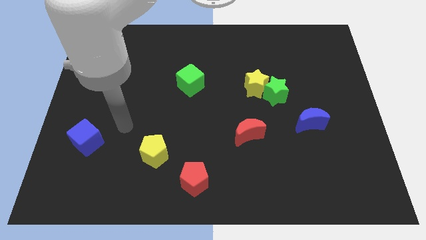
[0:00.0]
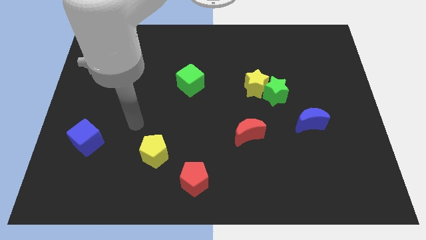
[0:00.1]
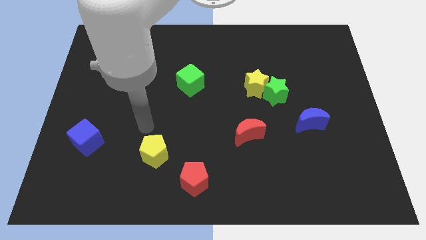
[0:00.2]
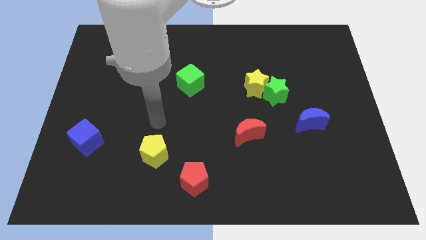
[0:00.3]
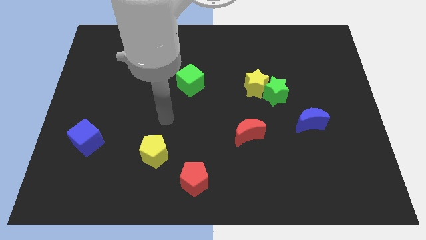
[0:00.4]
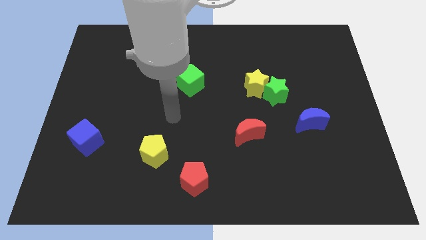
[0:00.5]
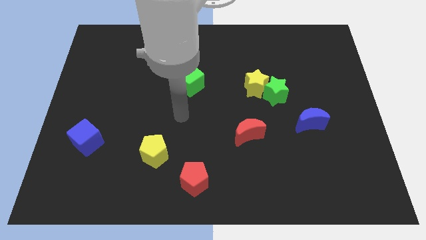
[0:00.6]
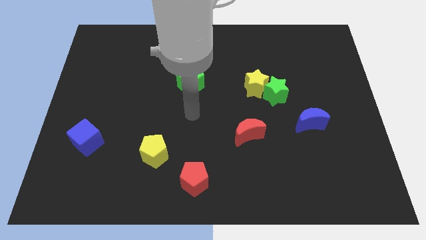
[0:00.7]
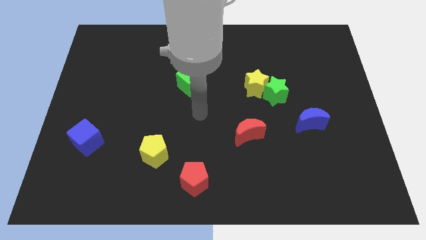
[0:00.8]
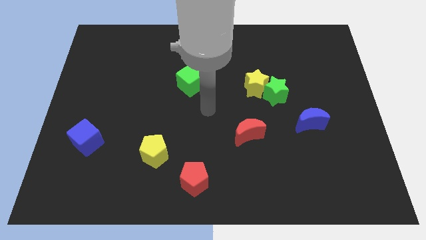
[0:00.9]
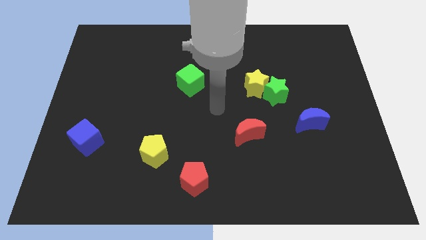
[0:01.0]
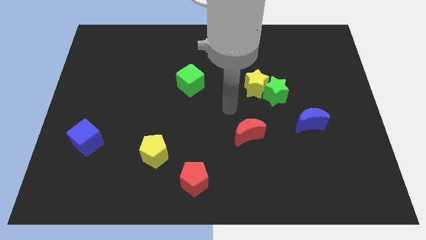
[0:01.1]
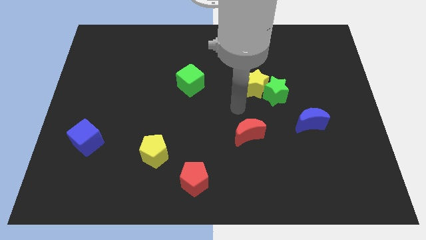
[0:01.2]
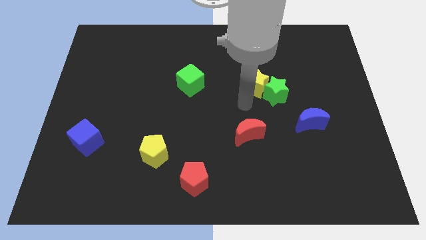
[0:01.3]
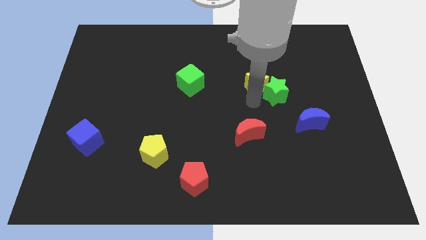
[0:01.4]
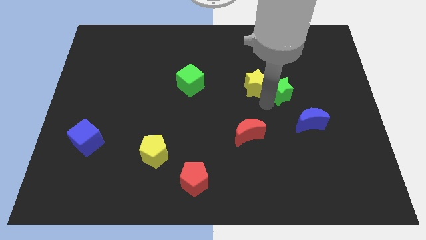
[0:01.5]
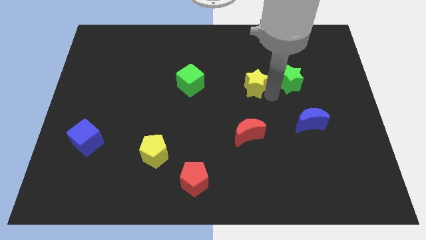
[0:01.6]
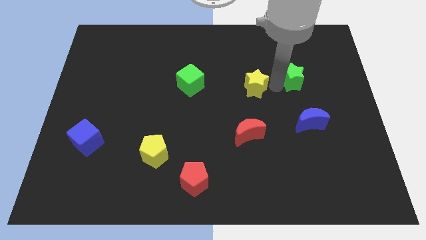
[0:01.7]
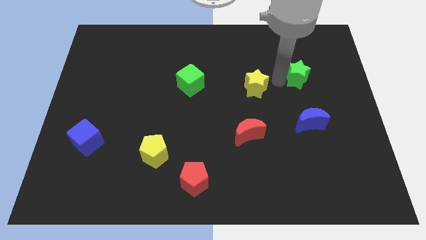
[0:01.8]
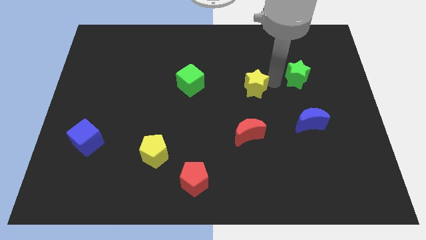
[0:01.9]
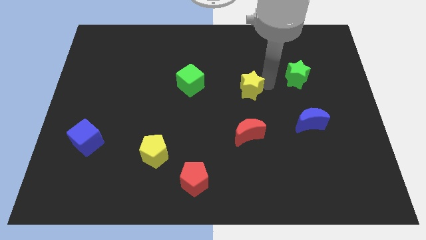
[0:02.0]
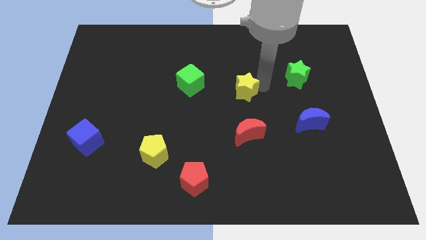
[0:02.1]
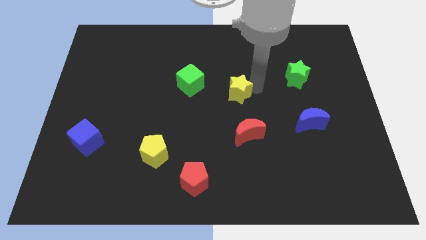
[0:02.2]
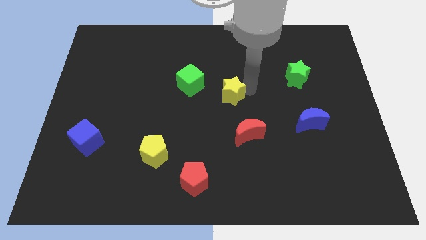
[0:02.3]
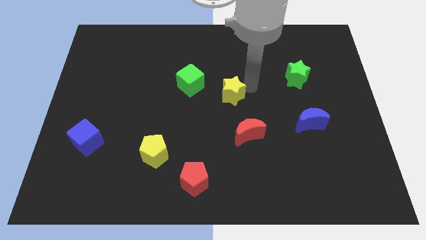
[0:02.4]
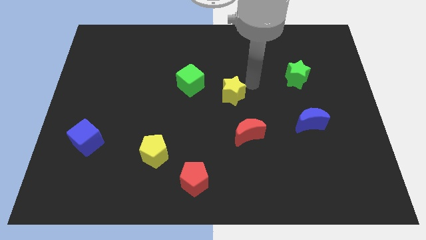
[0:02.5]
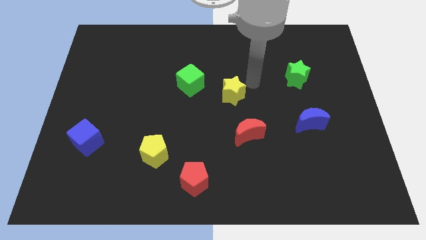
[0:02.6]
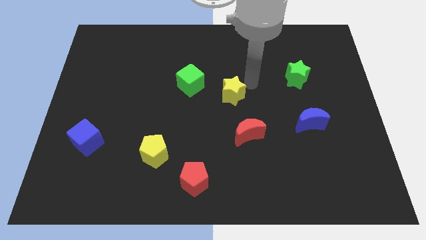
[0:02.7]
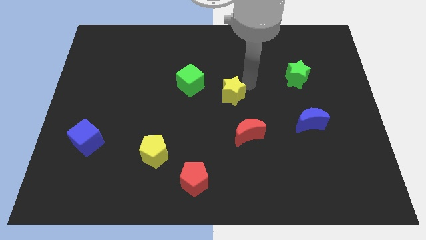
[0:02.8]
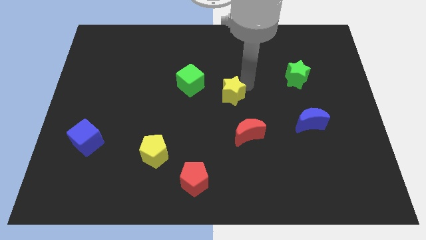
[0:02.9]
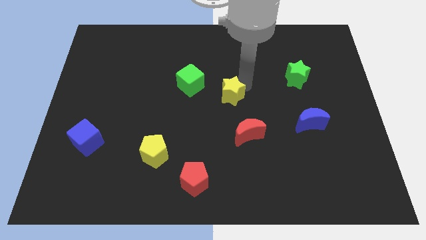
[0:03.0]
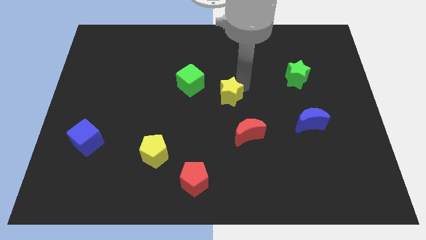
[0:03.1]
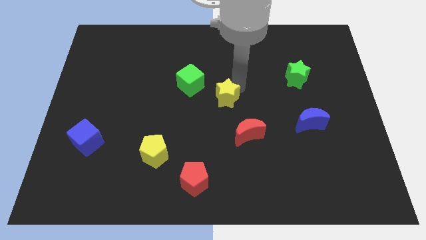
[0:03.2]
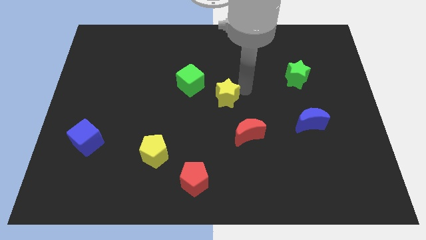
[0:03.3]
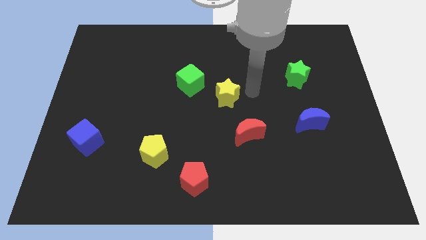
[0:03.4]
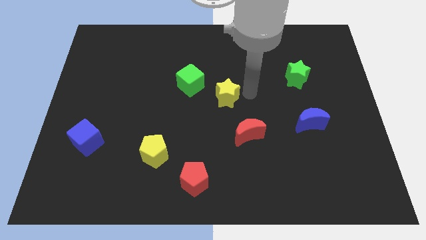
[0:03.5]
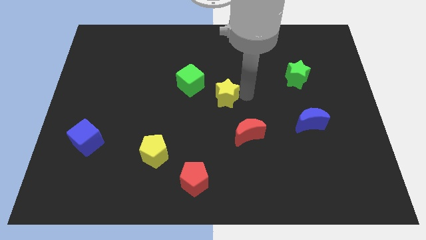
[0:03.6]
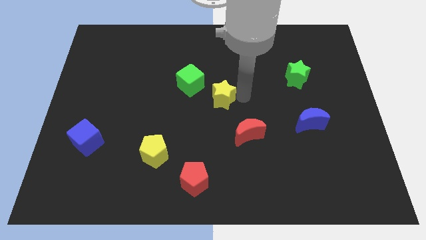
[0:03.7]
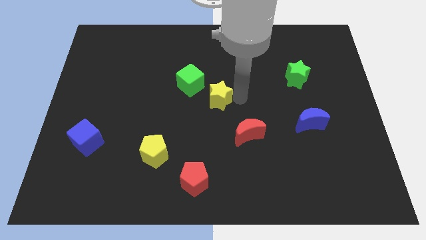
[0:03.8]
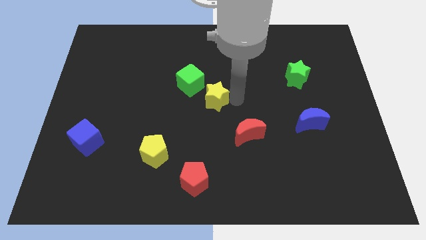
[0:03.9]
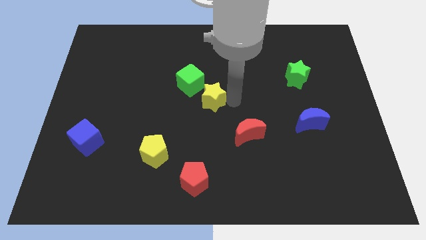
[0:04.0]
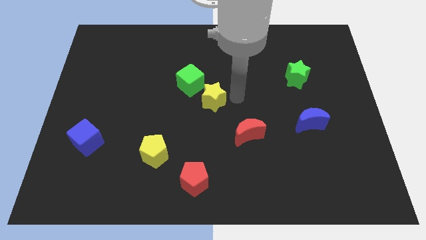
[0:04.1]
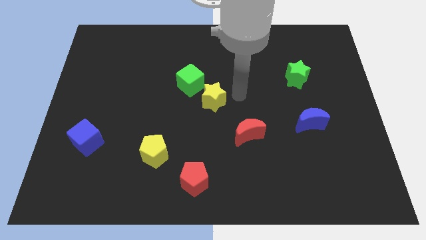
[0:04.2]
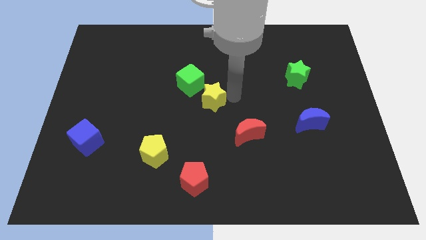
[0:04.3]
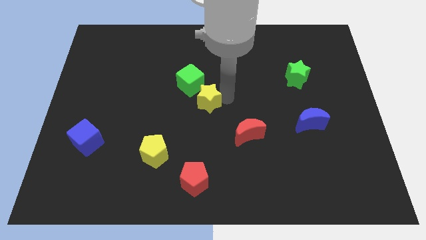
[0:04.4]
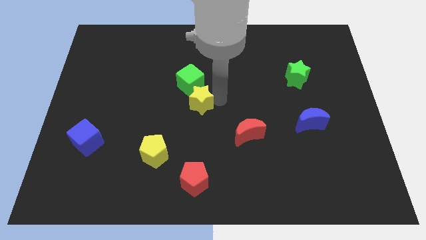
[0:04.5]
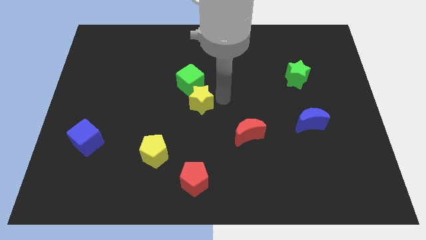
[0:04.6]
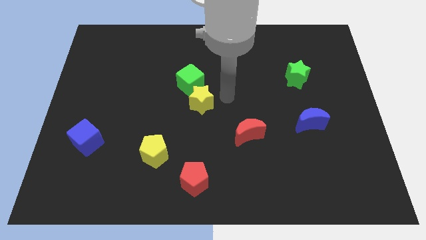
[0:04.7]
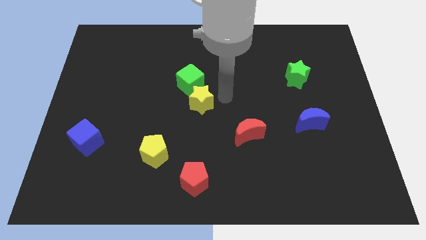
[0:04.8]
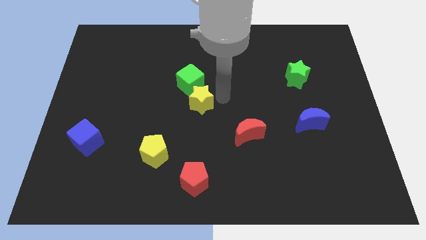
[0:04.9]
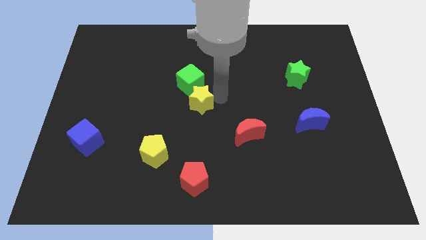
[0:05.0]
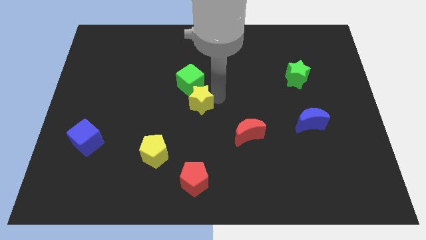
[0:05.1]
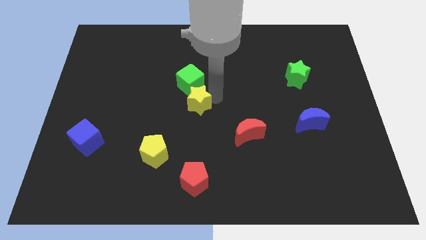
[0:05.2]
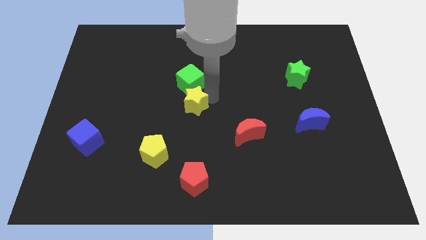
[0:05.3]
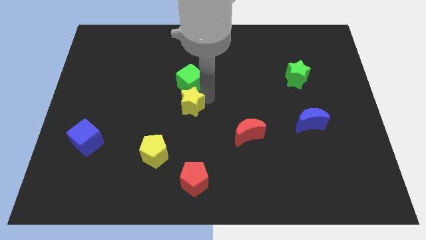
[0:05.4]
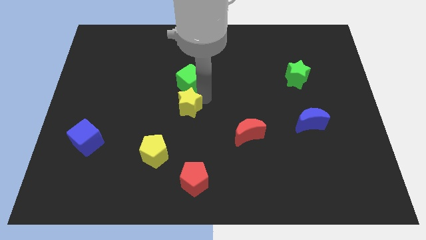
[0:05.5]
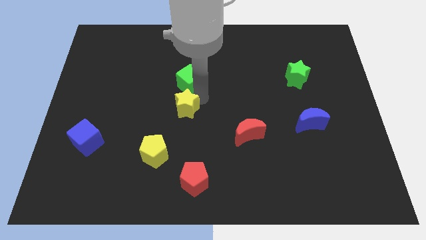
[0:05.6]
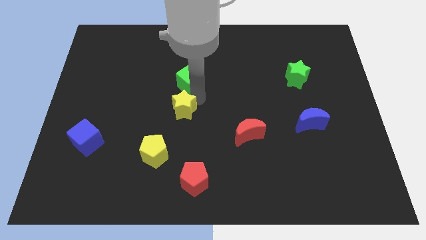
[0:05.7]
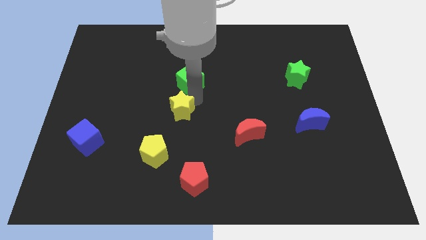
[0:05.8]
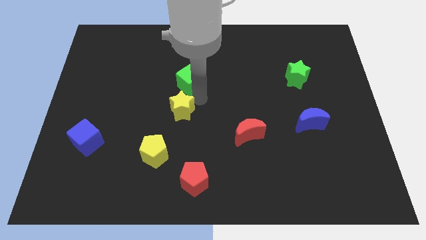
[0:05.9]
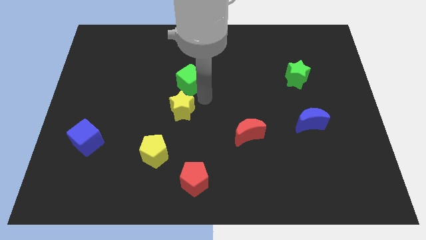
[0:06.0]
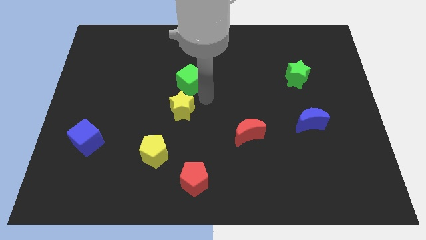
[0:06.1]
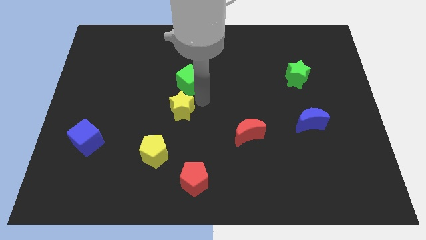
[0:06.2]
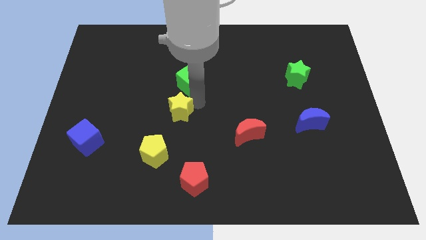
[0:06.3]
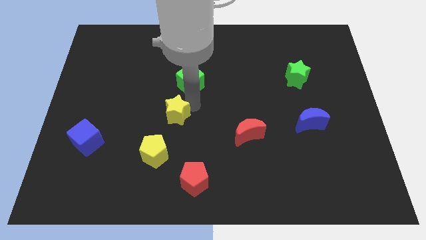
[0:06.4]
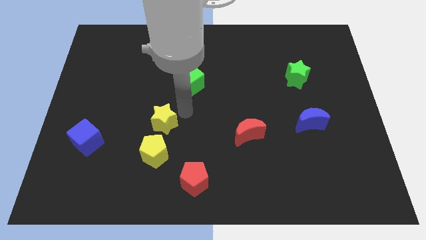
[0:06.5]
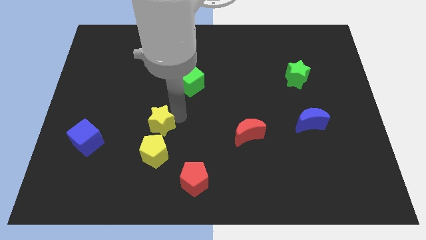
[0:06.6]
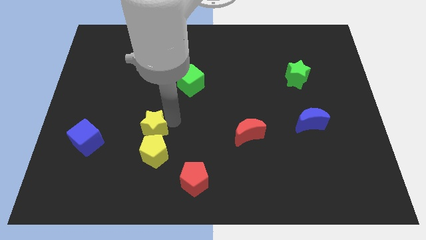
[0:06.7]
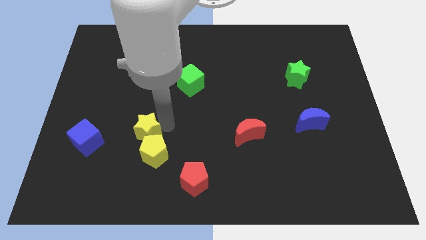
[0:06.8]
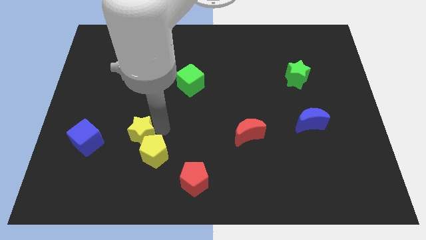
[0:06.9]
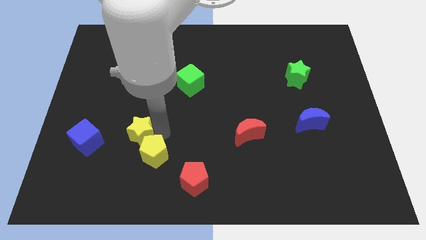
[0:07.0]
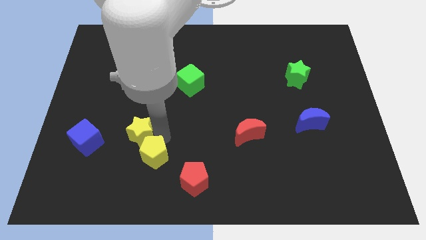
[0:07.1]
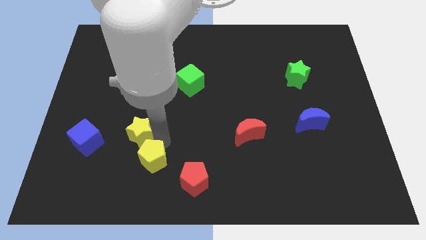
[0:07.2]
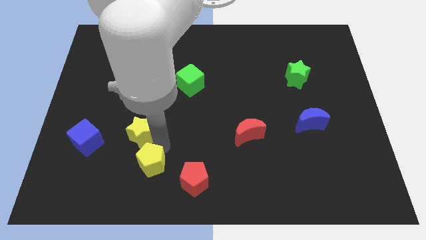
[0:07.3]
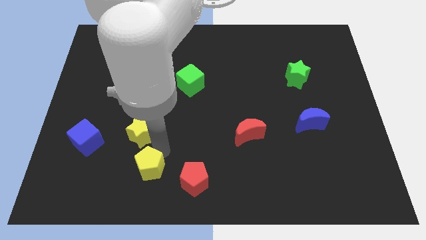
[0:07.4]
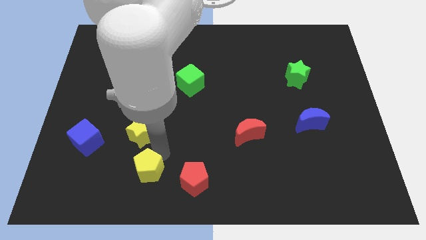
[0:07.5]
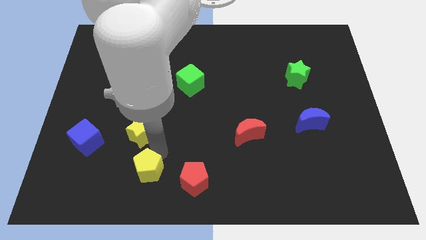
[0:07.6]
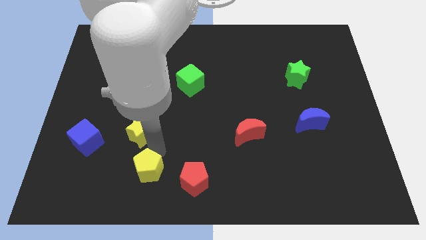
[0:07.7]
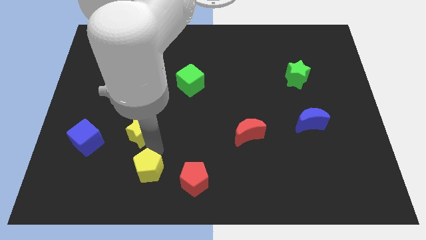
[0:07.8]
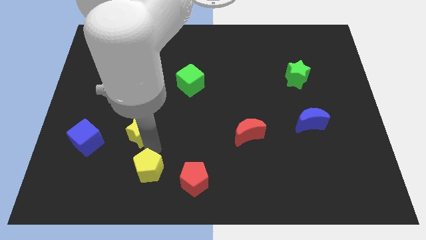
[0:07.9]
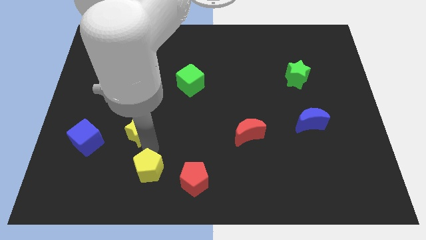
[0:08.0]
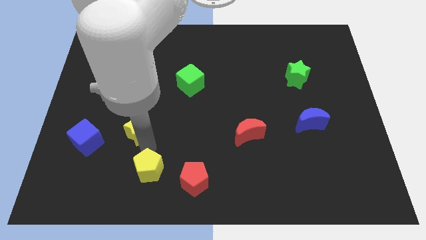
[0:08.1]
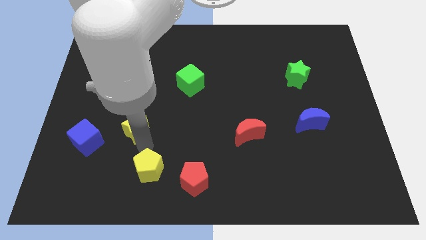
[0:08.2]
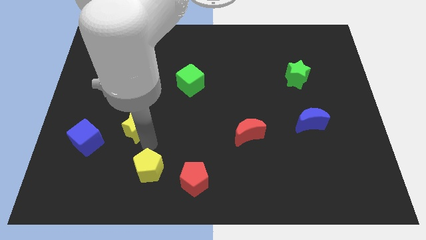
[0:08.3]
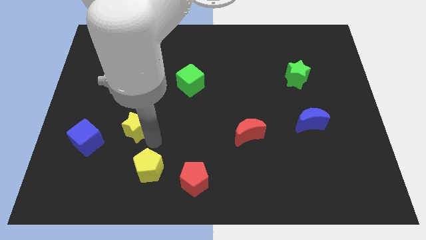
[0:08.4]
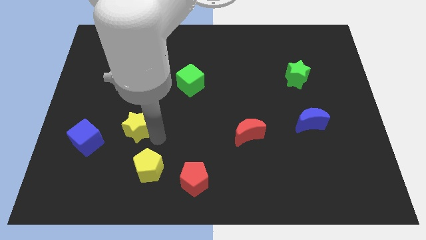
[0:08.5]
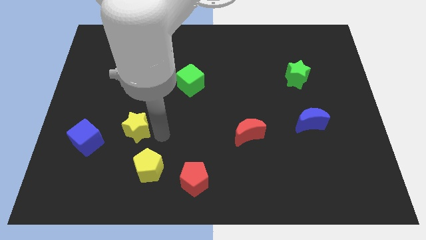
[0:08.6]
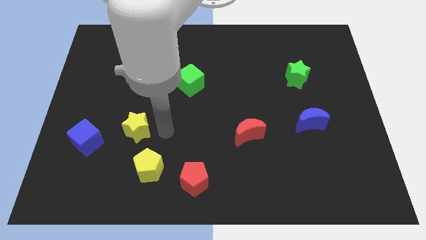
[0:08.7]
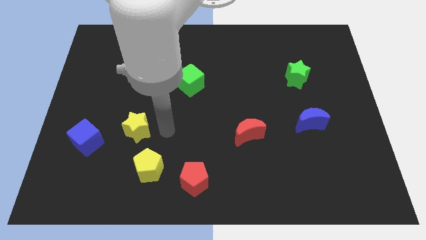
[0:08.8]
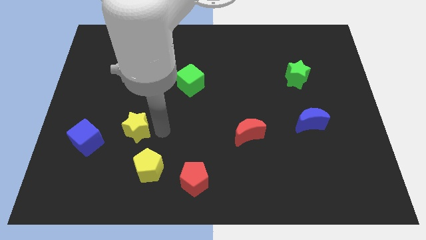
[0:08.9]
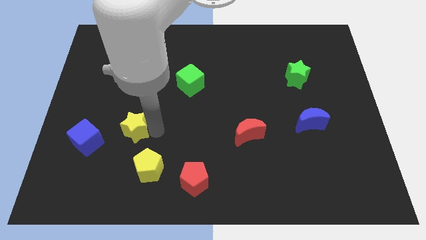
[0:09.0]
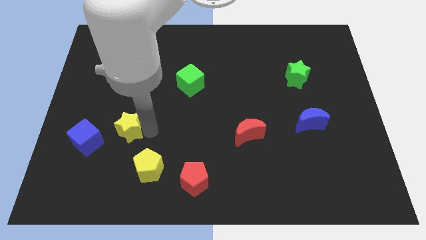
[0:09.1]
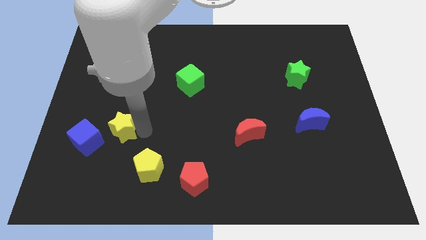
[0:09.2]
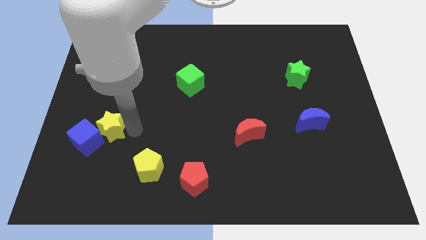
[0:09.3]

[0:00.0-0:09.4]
put the yellow star next to the blue cube
